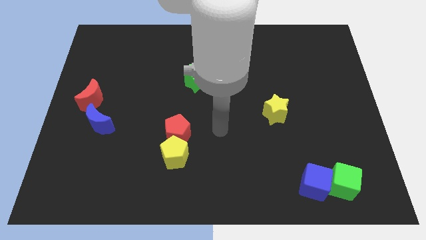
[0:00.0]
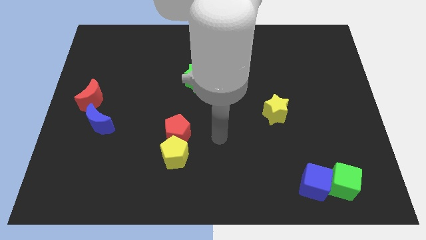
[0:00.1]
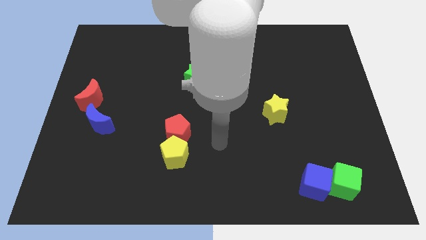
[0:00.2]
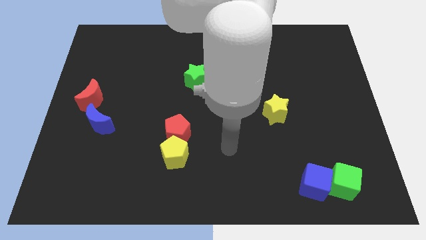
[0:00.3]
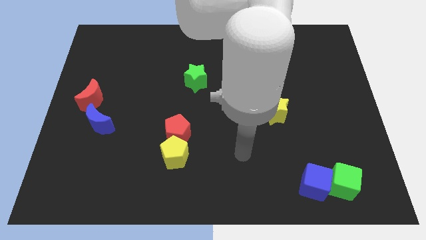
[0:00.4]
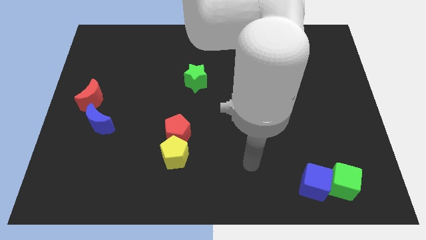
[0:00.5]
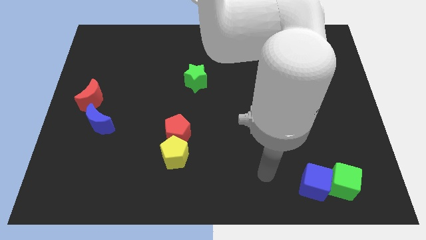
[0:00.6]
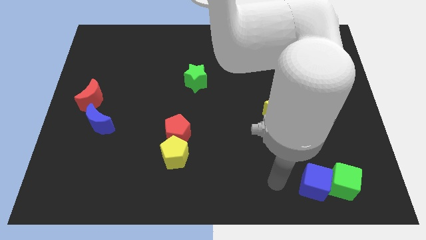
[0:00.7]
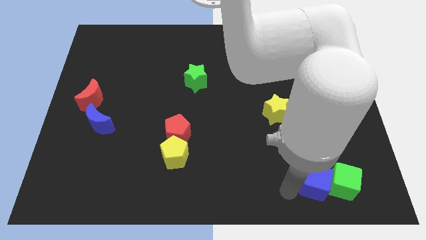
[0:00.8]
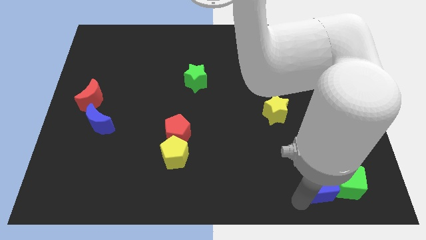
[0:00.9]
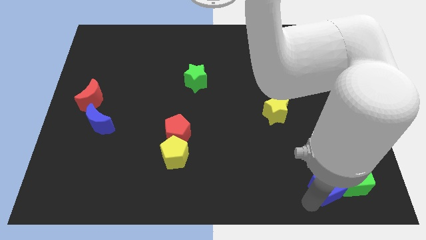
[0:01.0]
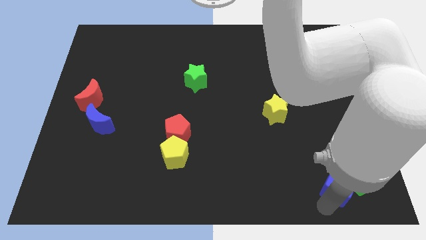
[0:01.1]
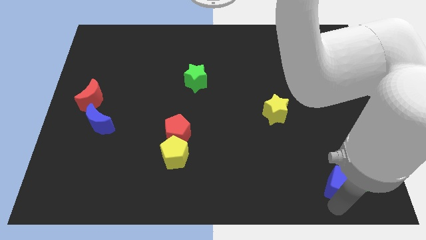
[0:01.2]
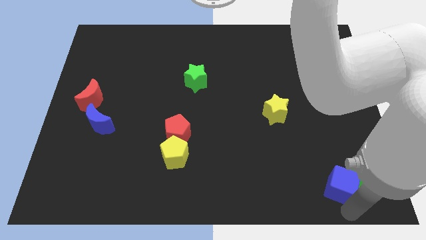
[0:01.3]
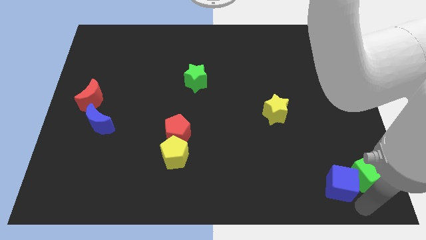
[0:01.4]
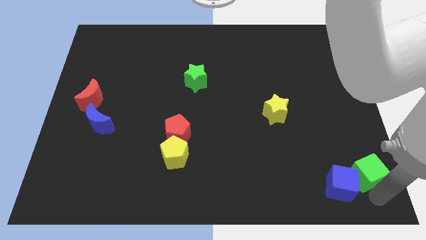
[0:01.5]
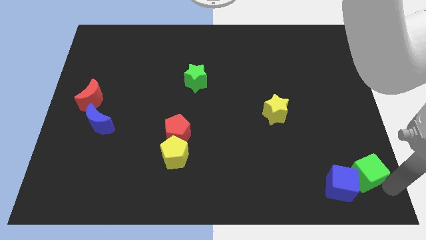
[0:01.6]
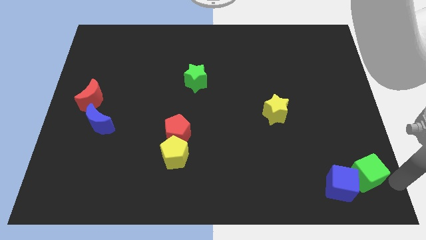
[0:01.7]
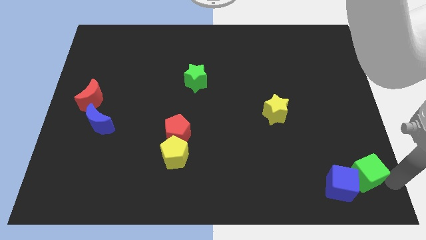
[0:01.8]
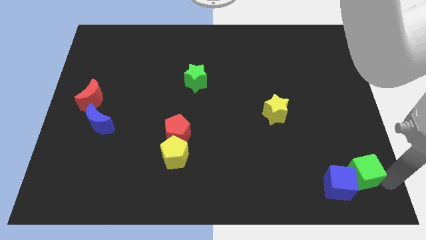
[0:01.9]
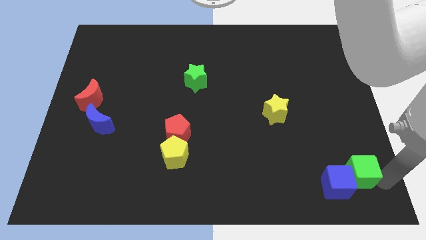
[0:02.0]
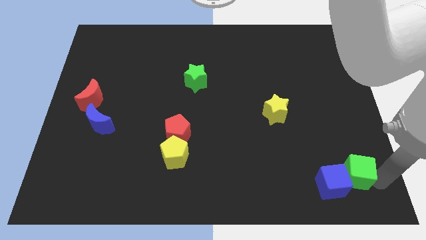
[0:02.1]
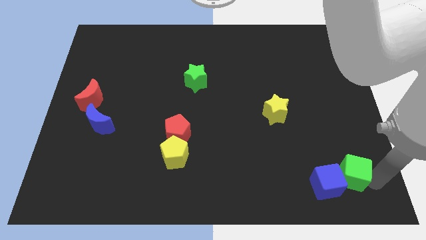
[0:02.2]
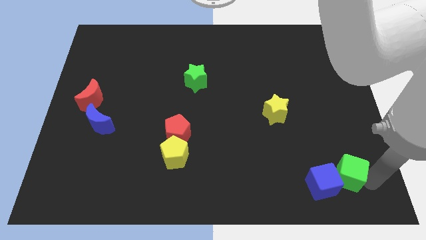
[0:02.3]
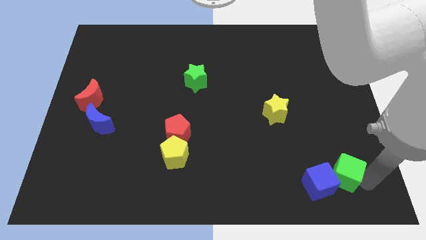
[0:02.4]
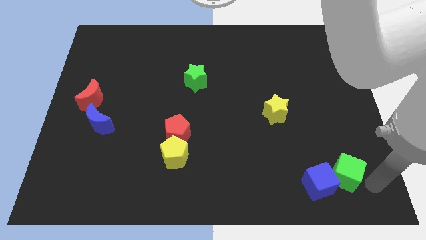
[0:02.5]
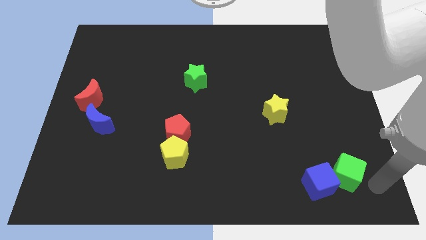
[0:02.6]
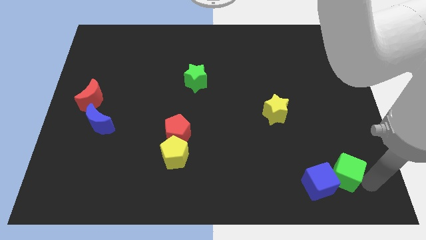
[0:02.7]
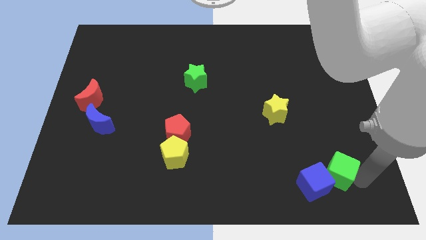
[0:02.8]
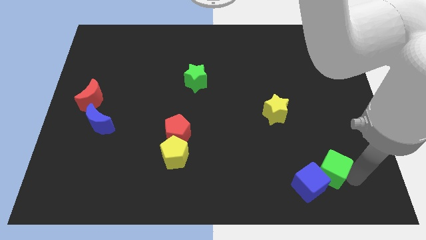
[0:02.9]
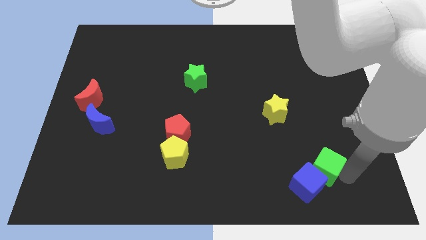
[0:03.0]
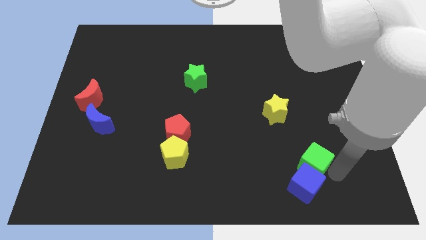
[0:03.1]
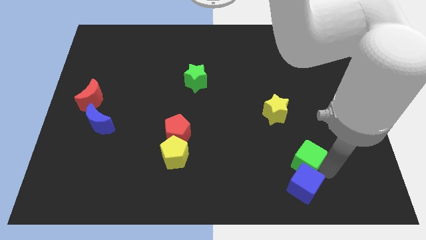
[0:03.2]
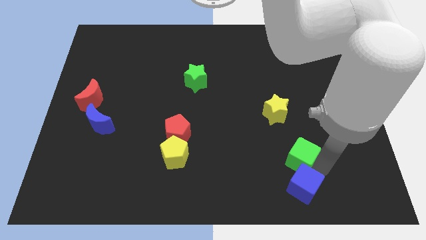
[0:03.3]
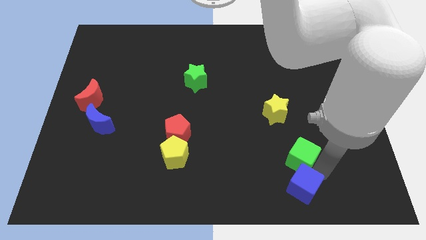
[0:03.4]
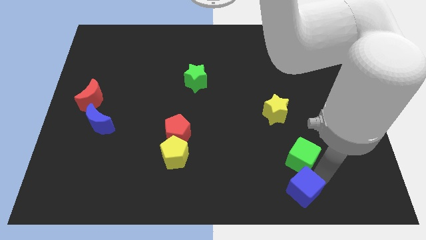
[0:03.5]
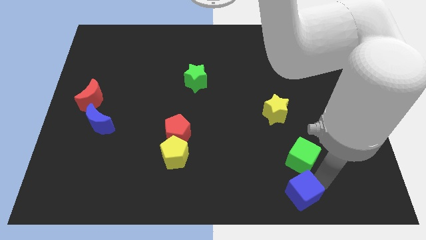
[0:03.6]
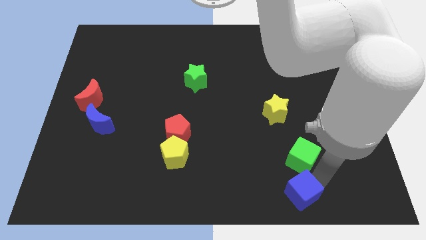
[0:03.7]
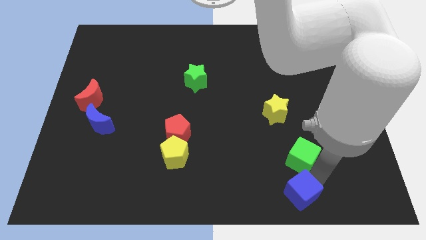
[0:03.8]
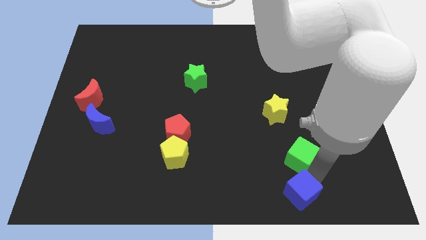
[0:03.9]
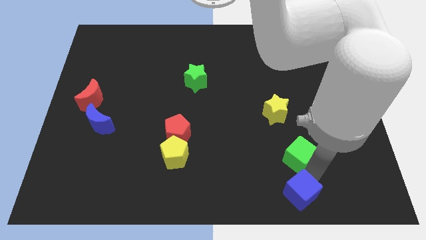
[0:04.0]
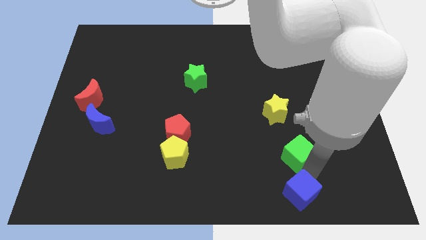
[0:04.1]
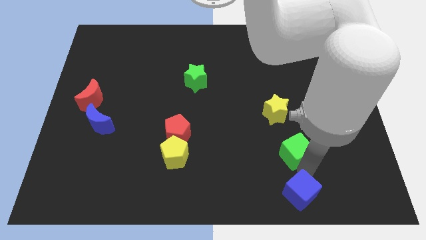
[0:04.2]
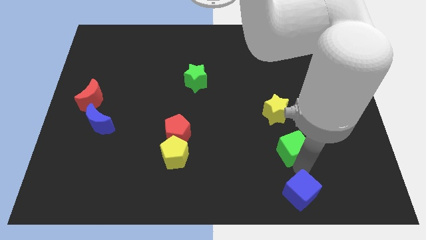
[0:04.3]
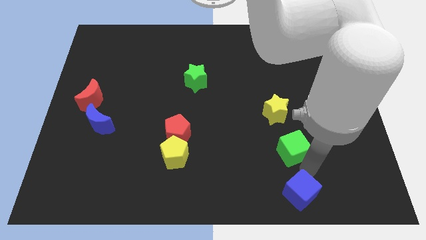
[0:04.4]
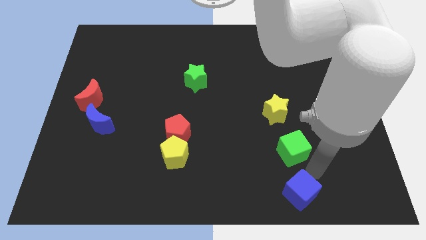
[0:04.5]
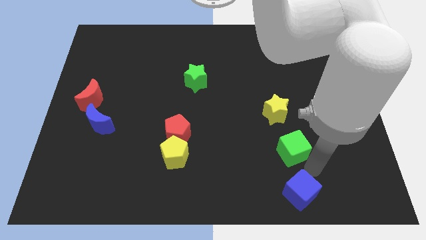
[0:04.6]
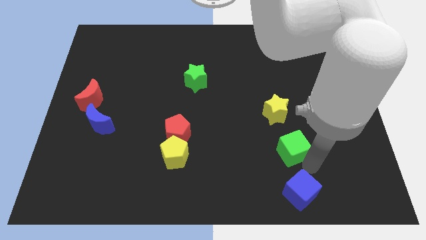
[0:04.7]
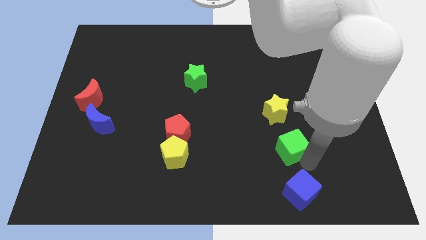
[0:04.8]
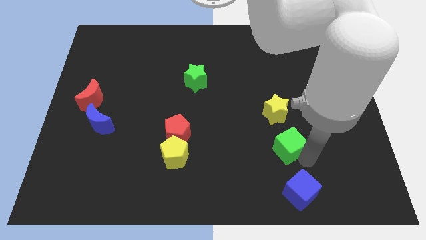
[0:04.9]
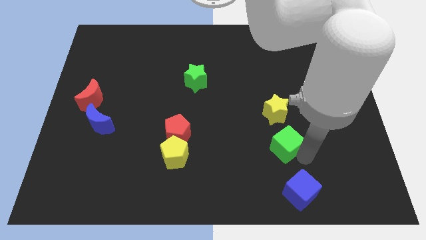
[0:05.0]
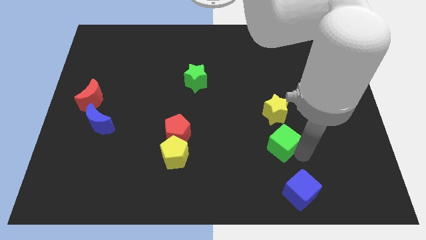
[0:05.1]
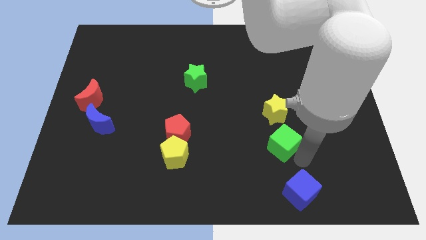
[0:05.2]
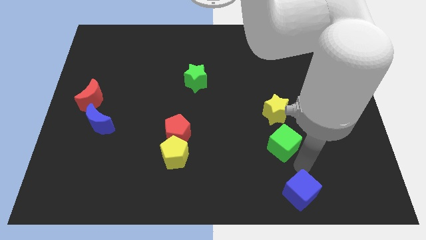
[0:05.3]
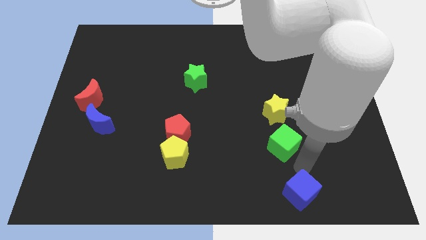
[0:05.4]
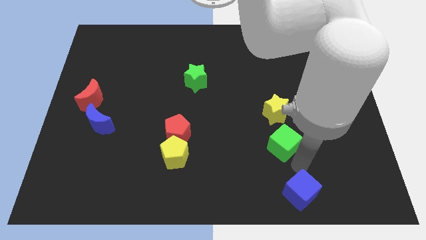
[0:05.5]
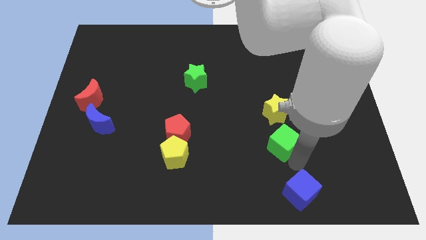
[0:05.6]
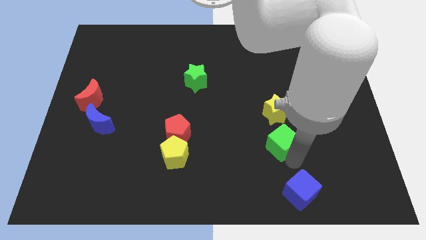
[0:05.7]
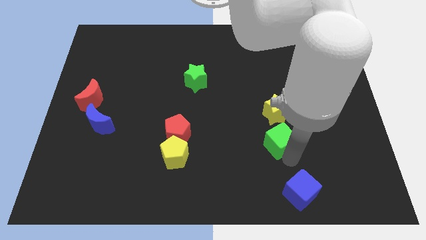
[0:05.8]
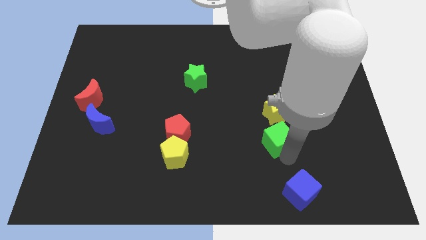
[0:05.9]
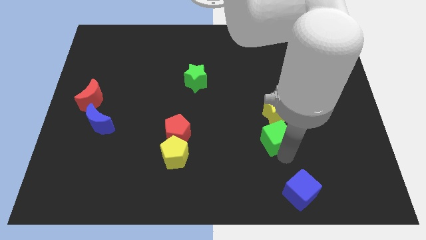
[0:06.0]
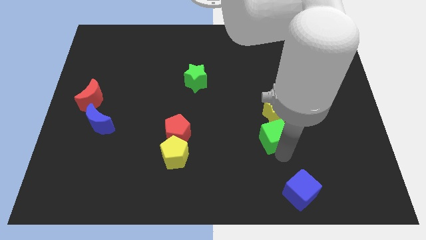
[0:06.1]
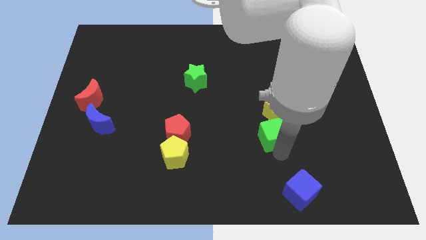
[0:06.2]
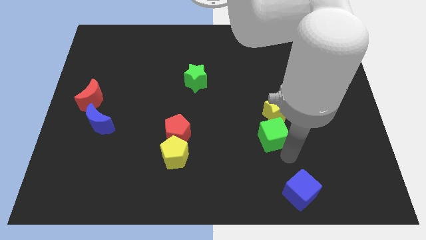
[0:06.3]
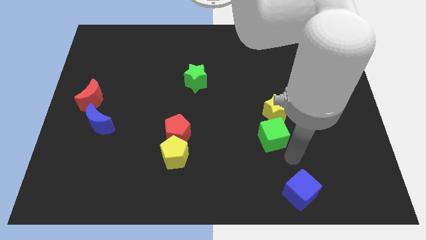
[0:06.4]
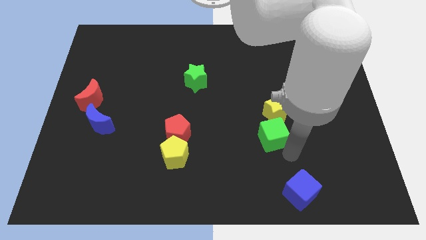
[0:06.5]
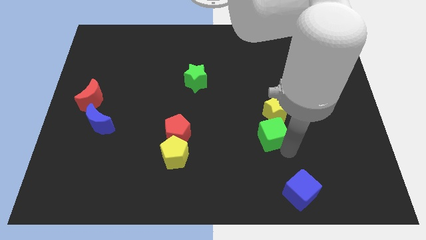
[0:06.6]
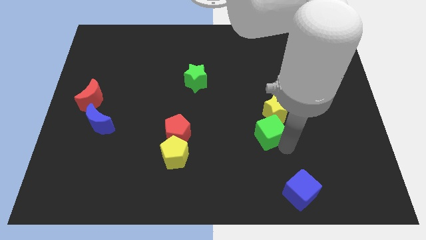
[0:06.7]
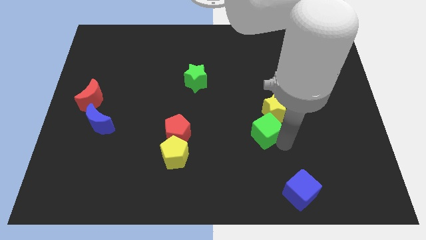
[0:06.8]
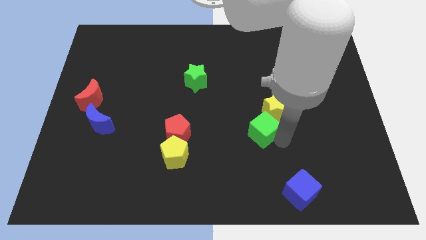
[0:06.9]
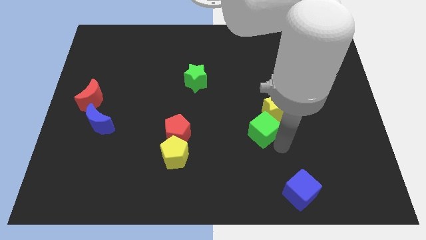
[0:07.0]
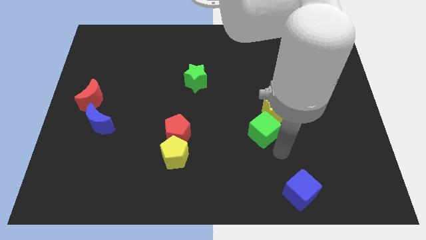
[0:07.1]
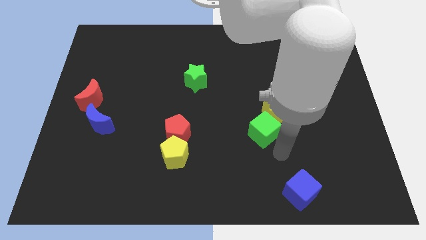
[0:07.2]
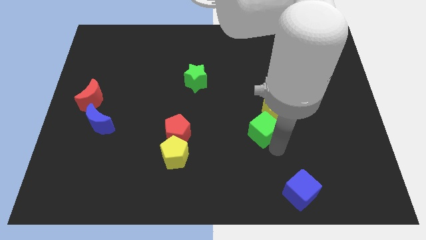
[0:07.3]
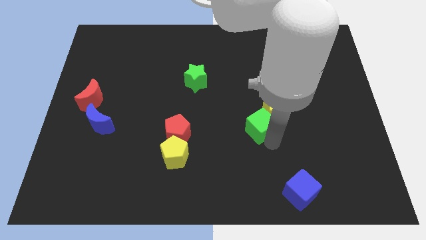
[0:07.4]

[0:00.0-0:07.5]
move the green cube upwards and then to the left

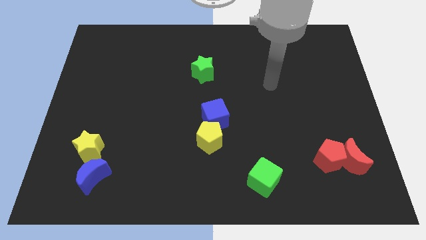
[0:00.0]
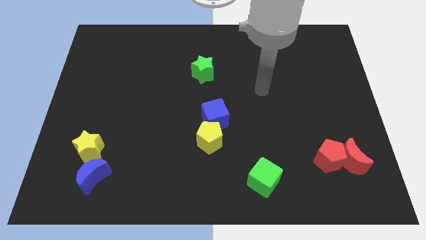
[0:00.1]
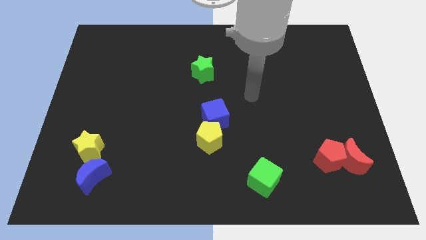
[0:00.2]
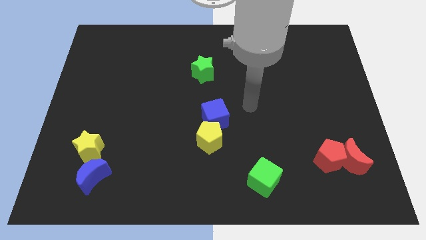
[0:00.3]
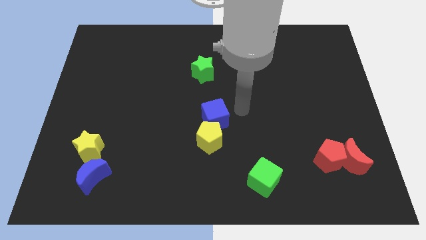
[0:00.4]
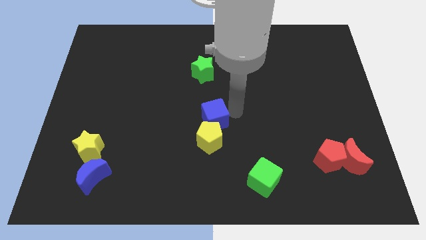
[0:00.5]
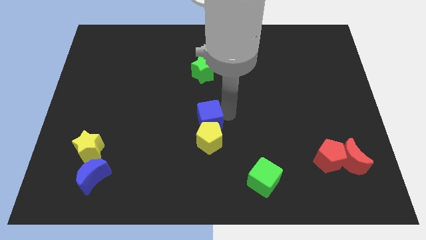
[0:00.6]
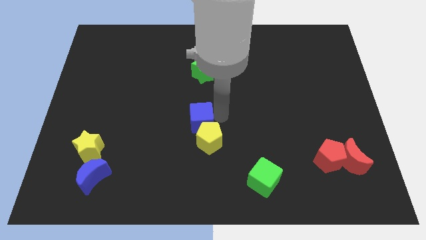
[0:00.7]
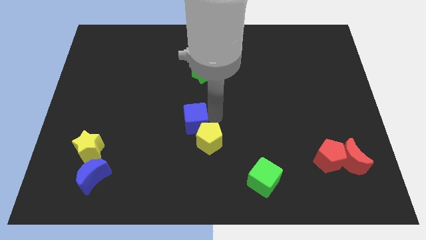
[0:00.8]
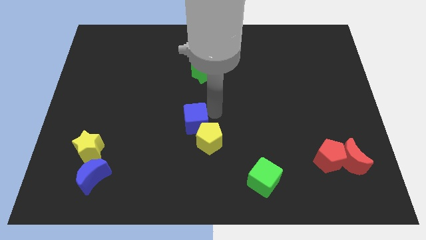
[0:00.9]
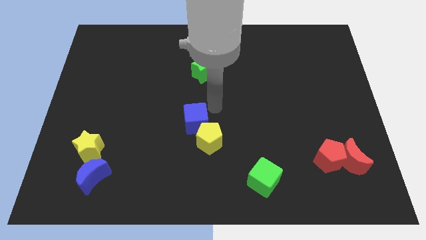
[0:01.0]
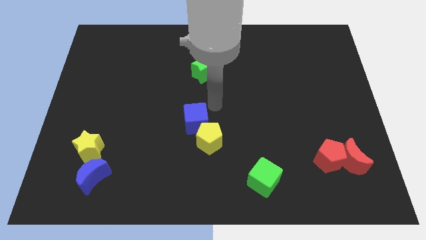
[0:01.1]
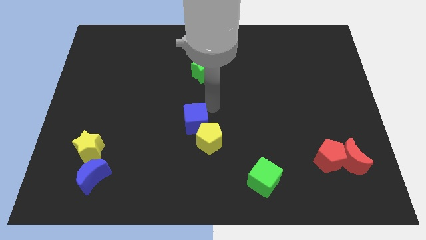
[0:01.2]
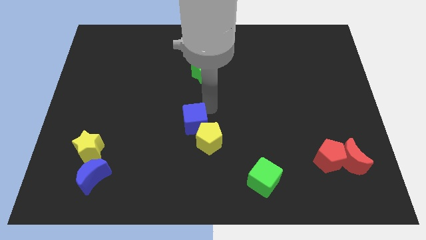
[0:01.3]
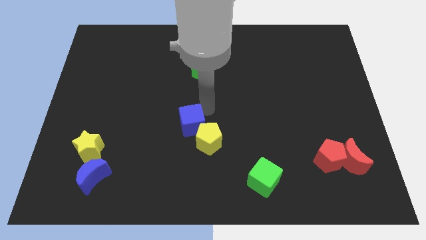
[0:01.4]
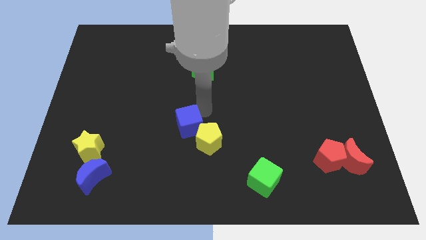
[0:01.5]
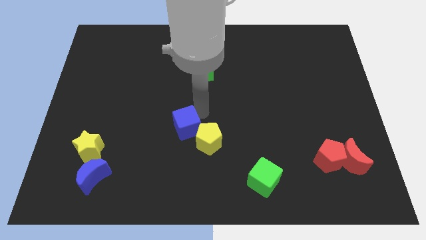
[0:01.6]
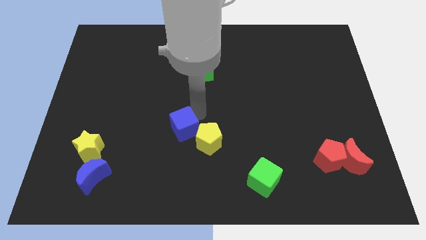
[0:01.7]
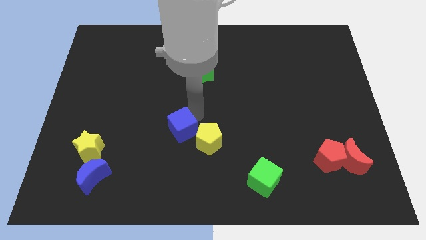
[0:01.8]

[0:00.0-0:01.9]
move the blue cube a little downwards and to the left
